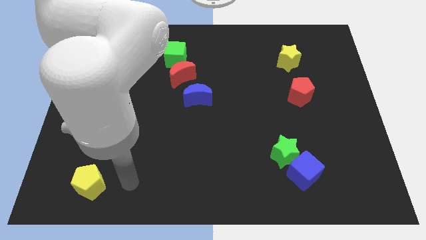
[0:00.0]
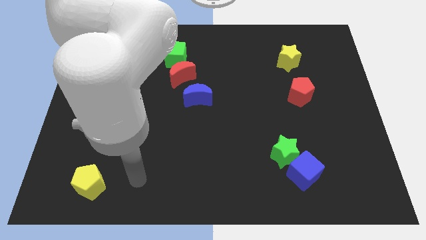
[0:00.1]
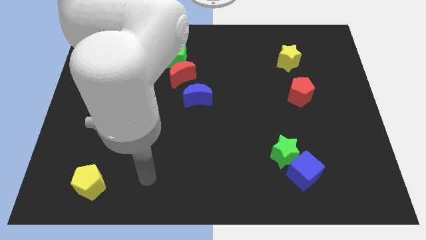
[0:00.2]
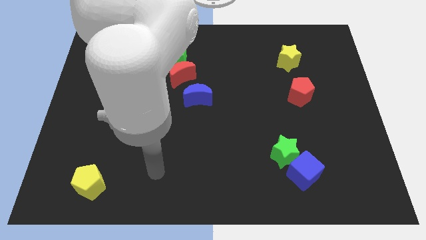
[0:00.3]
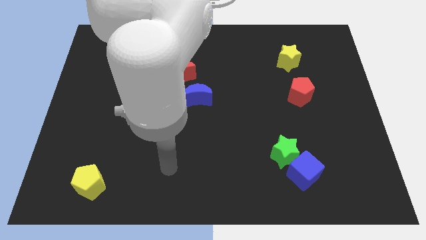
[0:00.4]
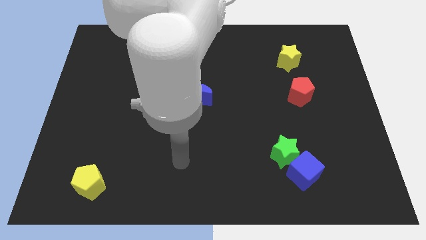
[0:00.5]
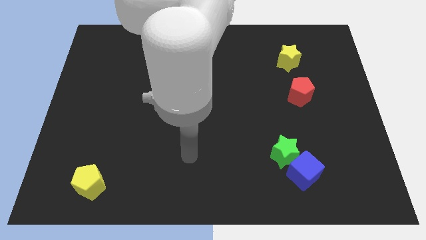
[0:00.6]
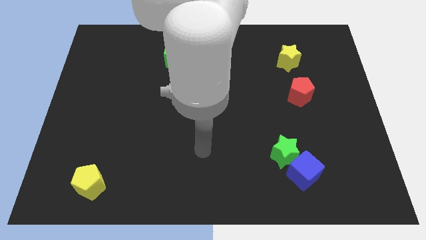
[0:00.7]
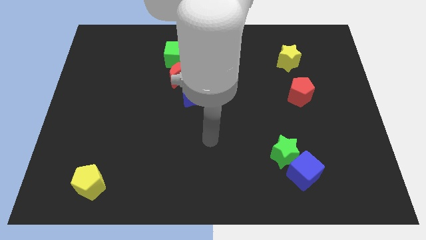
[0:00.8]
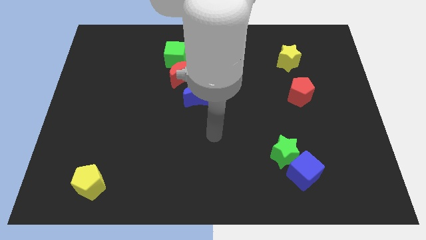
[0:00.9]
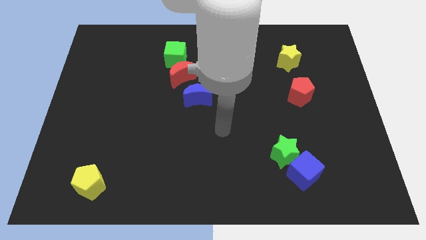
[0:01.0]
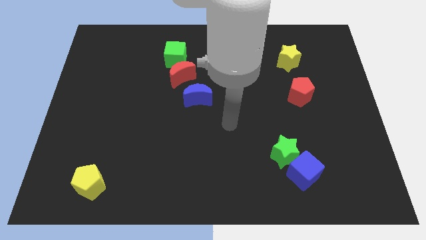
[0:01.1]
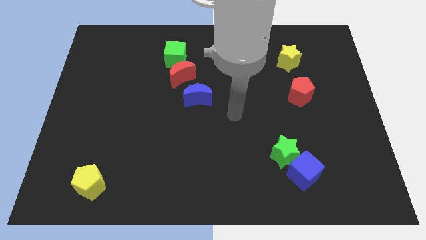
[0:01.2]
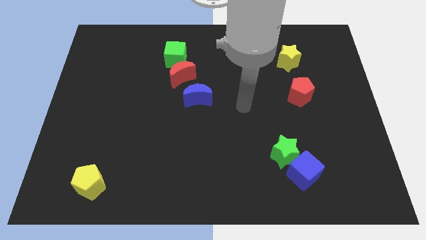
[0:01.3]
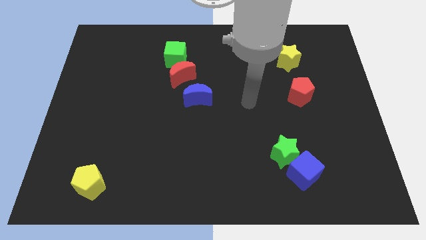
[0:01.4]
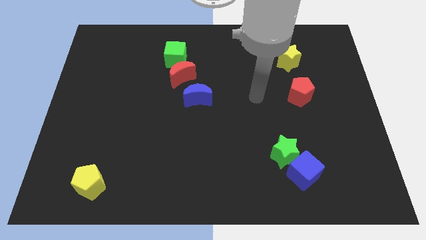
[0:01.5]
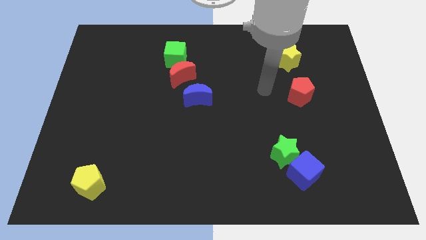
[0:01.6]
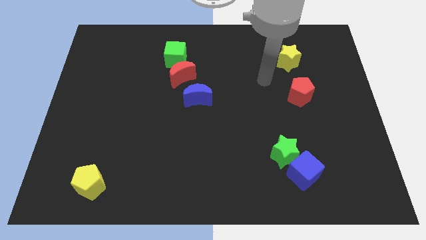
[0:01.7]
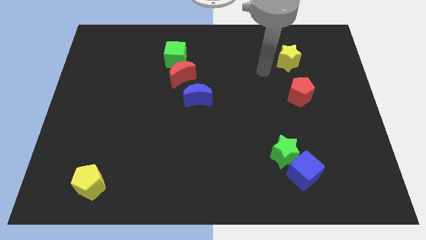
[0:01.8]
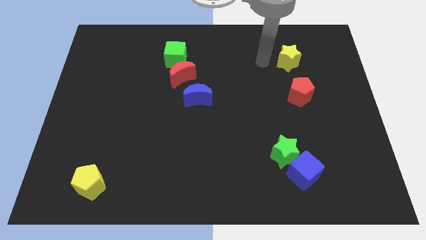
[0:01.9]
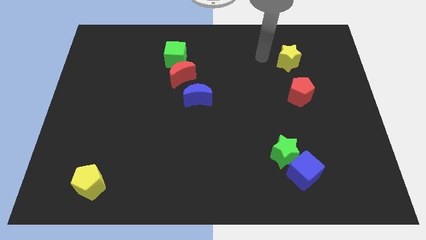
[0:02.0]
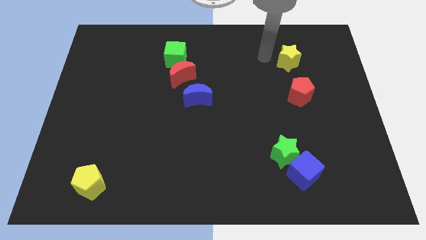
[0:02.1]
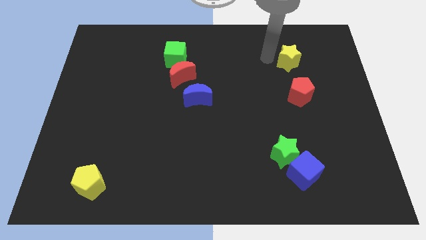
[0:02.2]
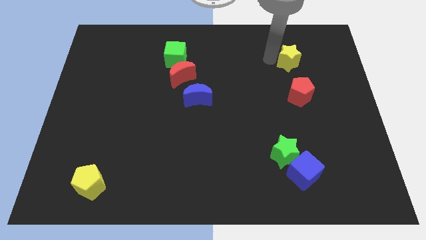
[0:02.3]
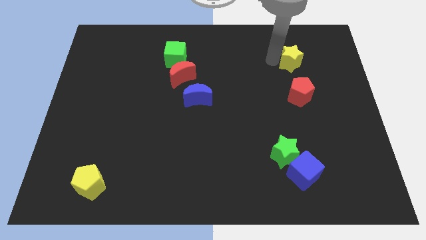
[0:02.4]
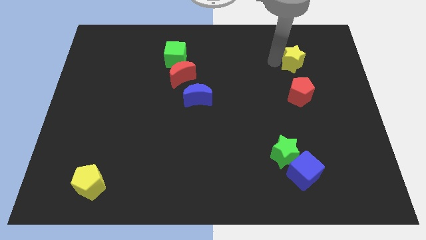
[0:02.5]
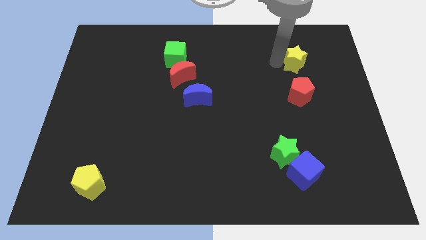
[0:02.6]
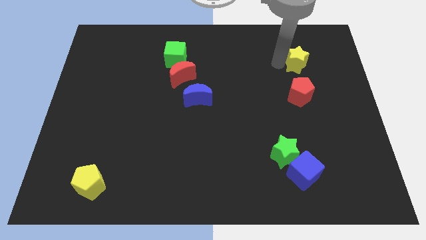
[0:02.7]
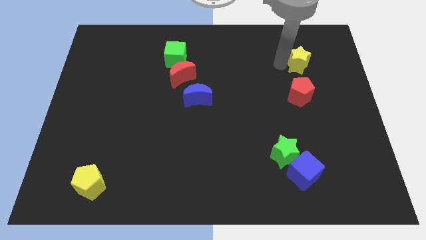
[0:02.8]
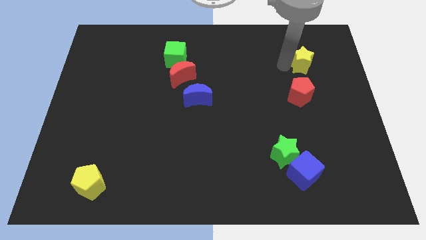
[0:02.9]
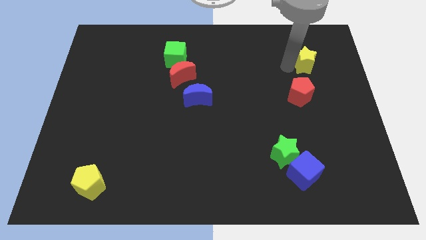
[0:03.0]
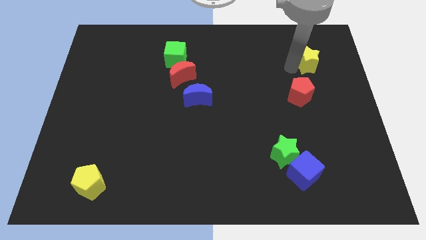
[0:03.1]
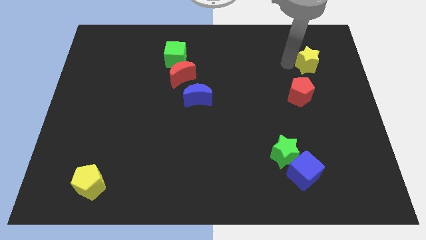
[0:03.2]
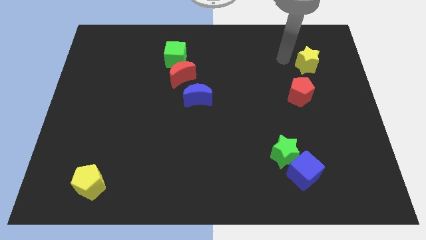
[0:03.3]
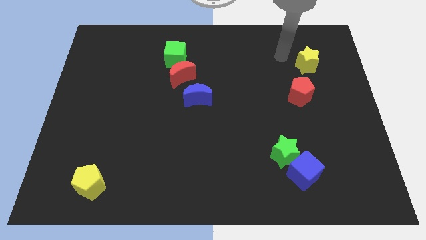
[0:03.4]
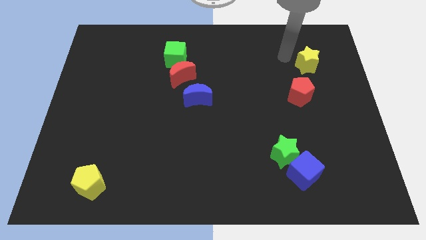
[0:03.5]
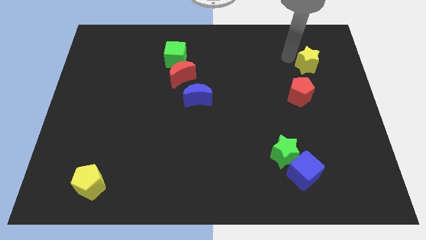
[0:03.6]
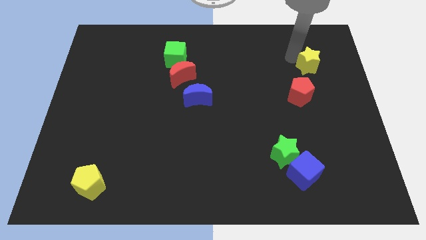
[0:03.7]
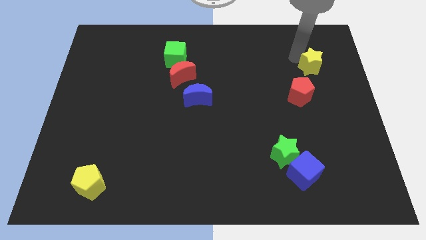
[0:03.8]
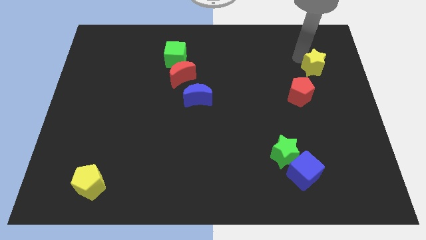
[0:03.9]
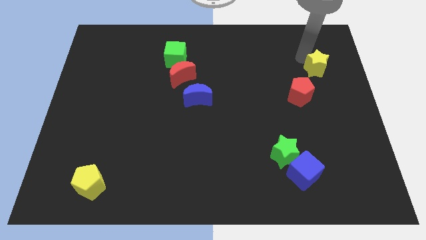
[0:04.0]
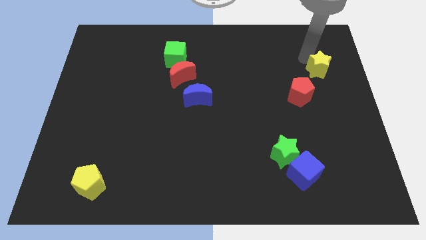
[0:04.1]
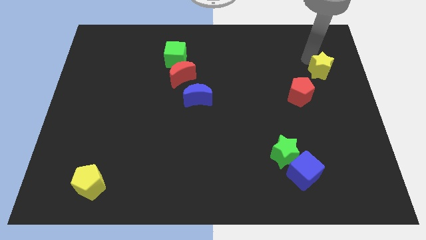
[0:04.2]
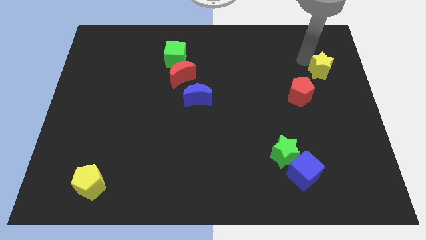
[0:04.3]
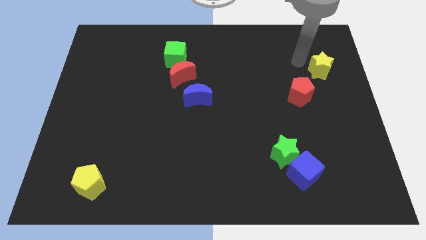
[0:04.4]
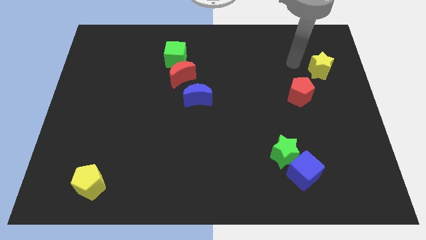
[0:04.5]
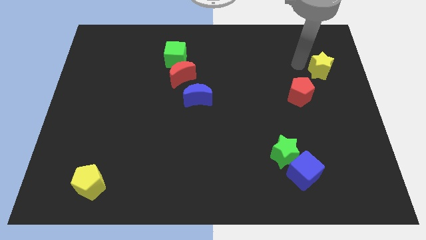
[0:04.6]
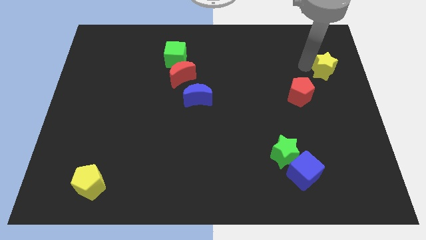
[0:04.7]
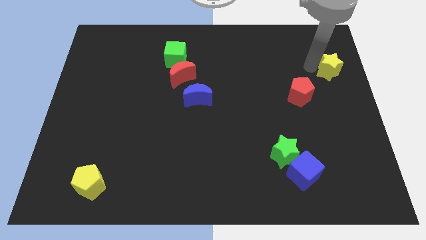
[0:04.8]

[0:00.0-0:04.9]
push the yellow star to the right side

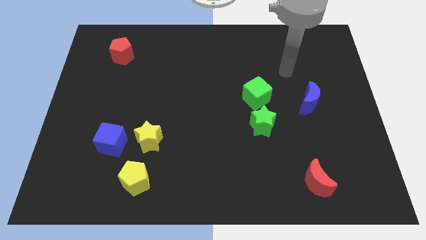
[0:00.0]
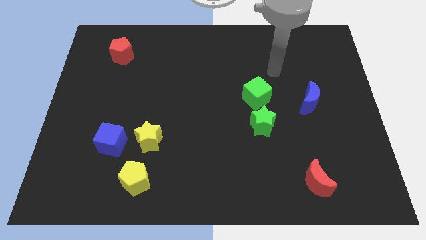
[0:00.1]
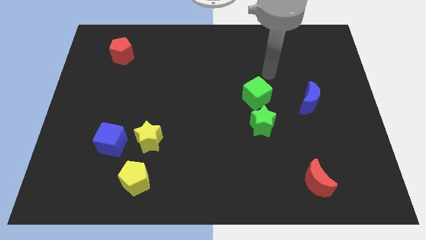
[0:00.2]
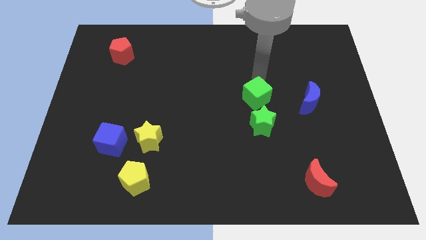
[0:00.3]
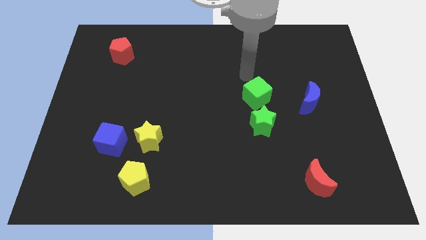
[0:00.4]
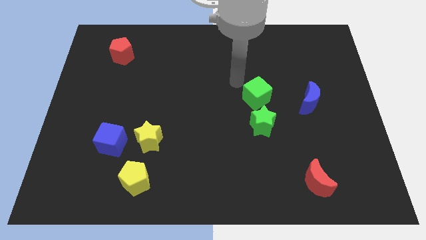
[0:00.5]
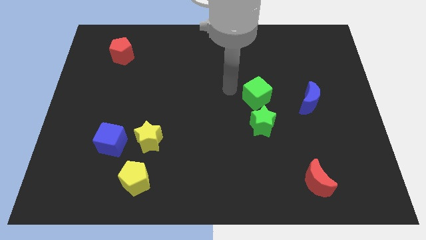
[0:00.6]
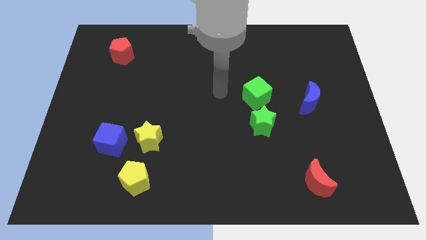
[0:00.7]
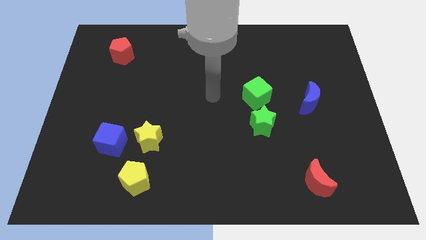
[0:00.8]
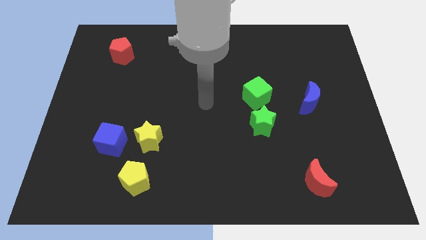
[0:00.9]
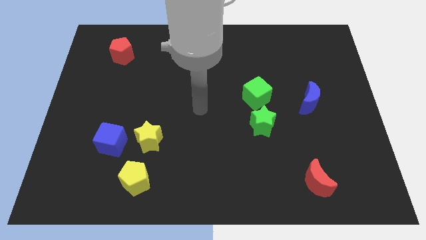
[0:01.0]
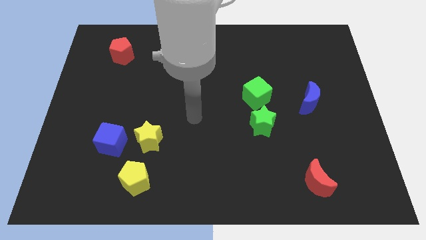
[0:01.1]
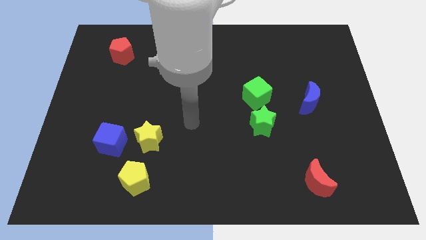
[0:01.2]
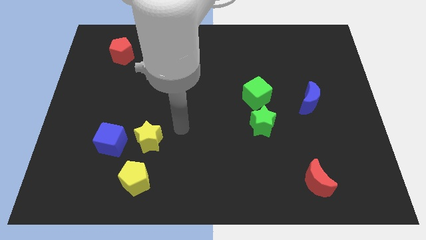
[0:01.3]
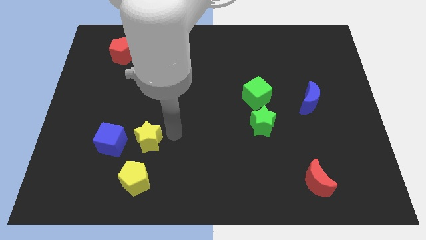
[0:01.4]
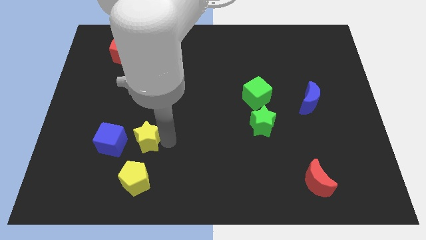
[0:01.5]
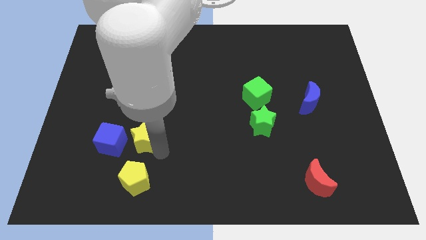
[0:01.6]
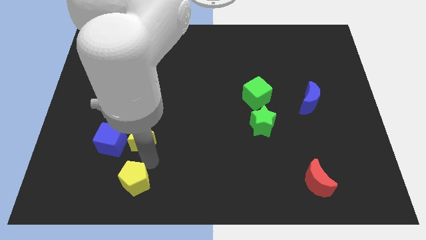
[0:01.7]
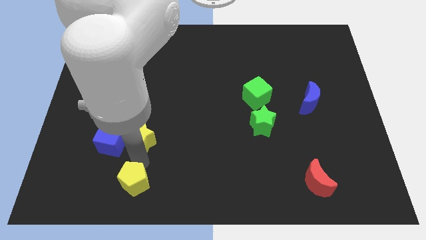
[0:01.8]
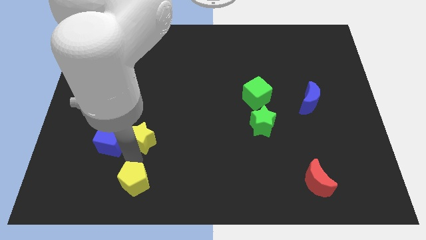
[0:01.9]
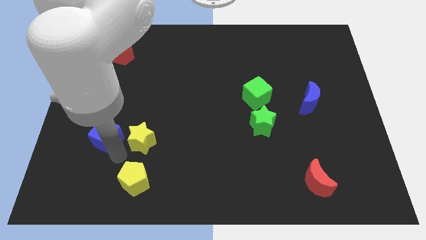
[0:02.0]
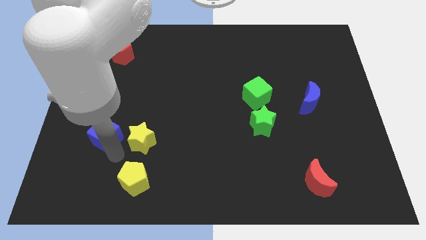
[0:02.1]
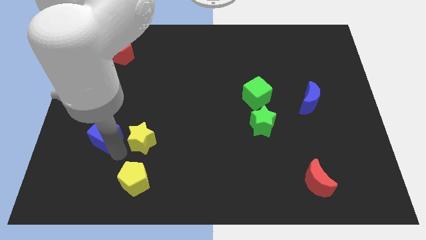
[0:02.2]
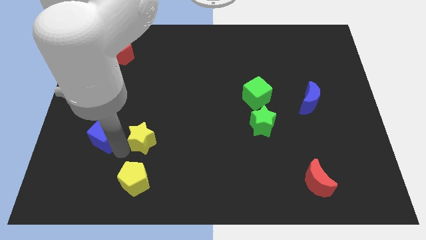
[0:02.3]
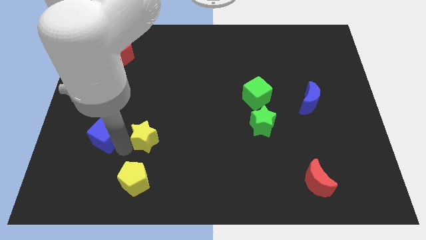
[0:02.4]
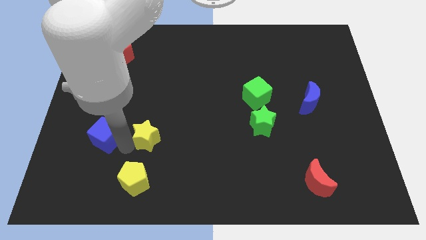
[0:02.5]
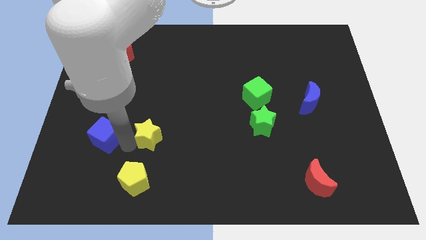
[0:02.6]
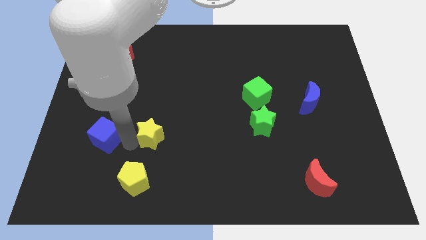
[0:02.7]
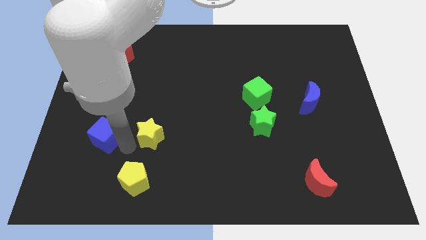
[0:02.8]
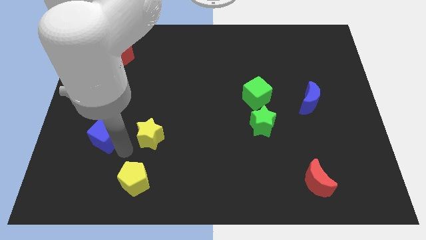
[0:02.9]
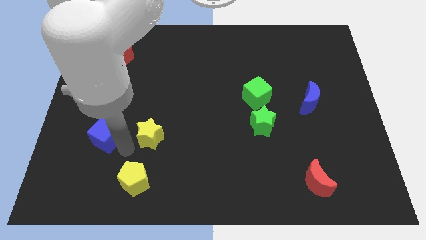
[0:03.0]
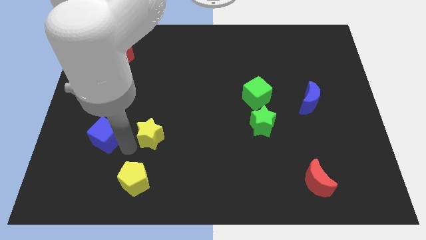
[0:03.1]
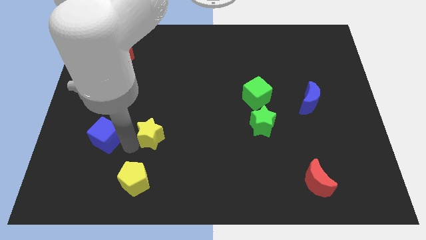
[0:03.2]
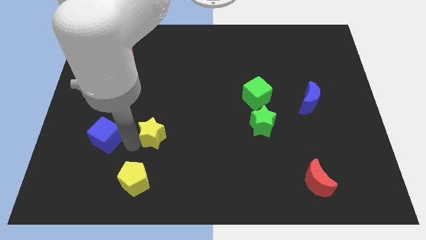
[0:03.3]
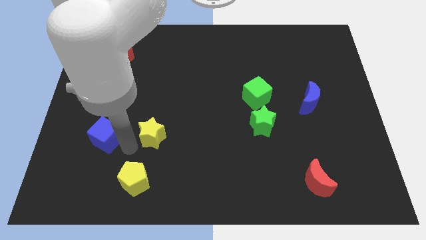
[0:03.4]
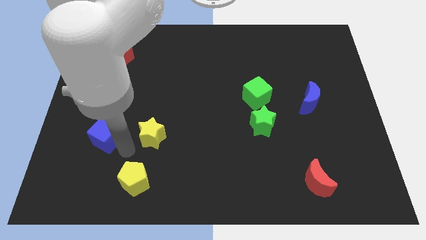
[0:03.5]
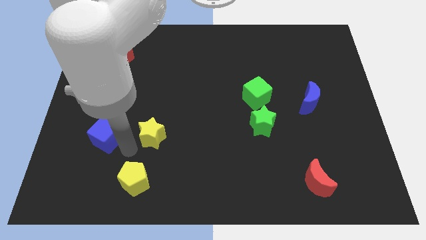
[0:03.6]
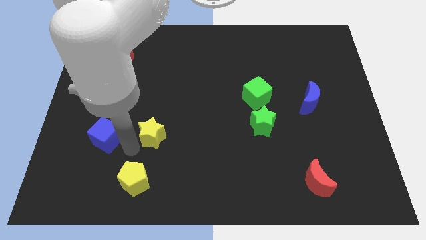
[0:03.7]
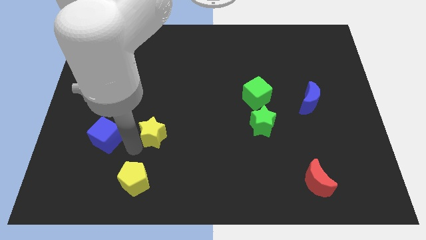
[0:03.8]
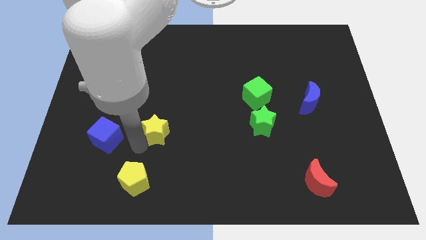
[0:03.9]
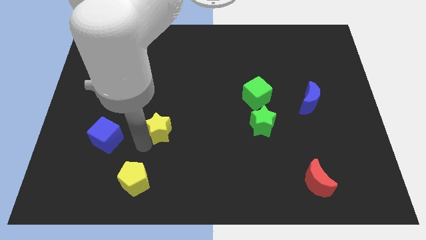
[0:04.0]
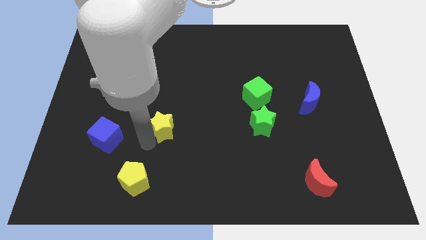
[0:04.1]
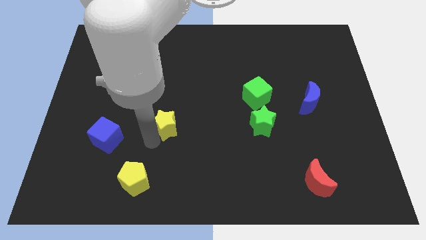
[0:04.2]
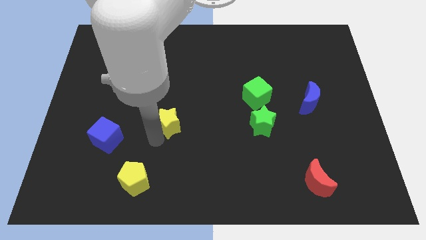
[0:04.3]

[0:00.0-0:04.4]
move the yellow star to the center
